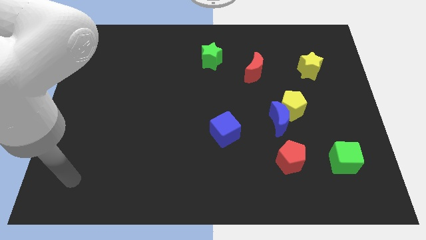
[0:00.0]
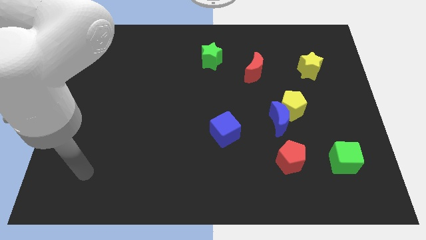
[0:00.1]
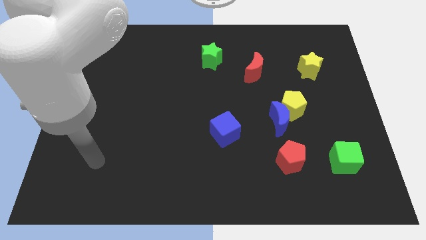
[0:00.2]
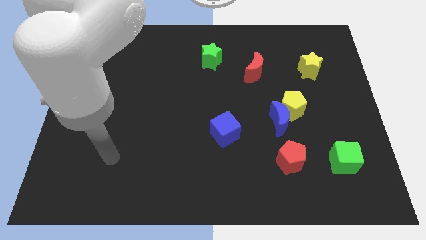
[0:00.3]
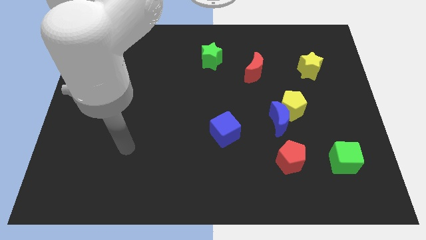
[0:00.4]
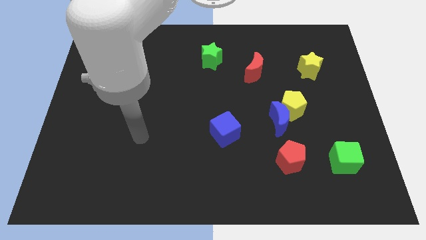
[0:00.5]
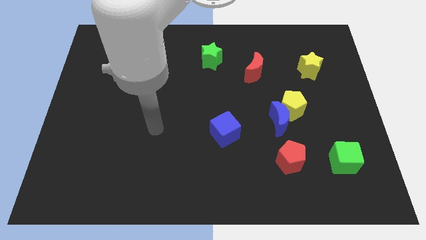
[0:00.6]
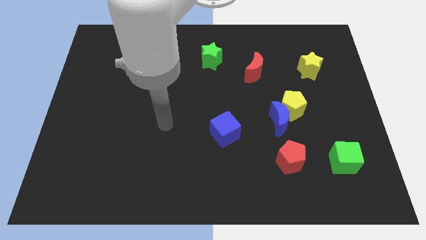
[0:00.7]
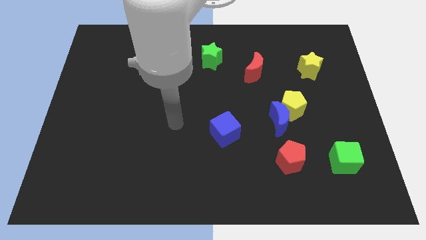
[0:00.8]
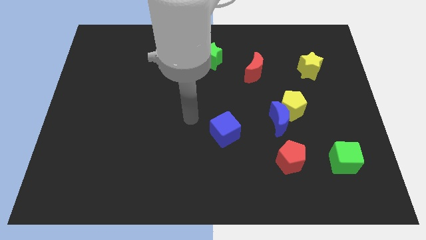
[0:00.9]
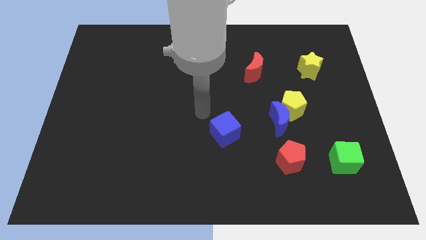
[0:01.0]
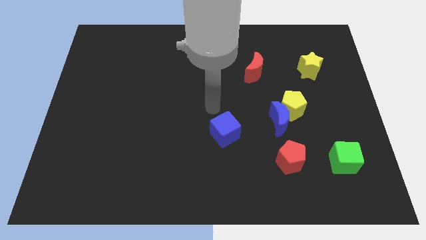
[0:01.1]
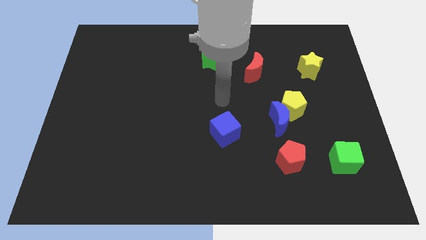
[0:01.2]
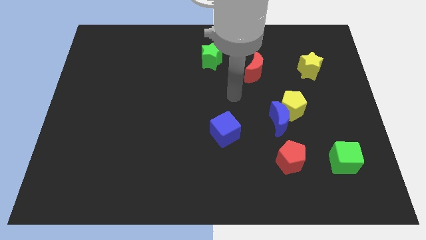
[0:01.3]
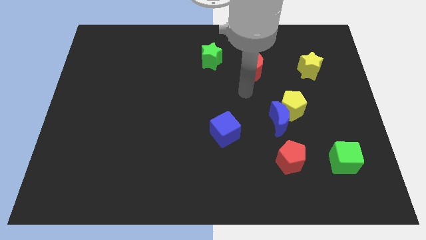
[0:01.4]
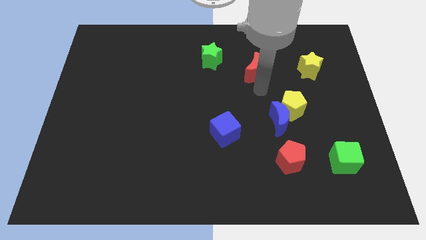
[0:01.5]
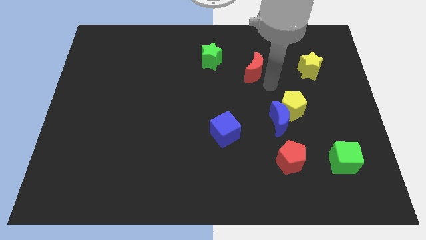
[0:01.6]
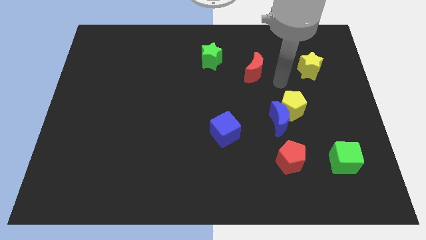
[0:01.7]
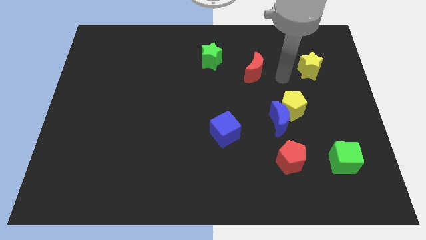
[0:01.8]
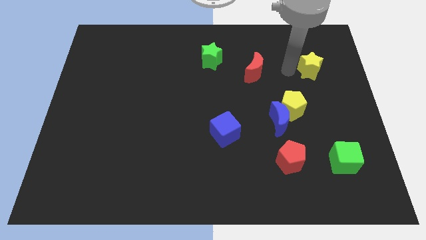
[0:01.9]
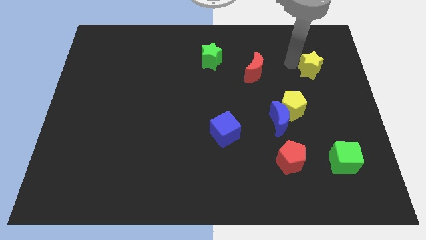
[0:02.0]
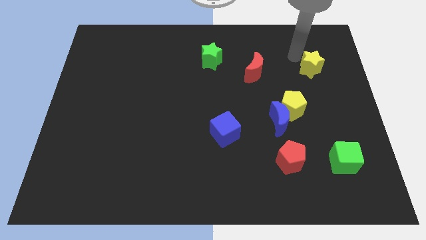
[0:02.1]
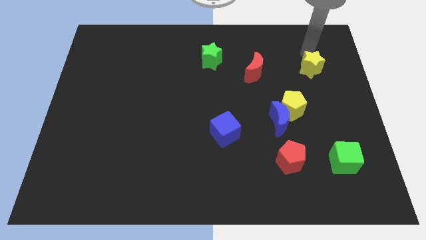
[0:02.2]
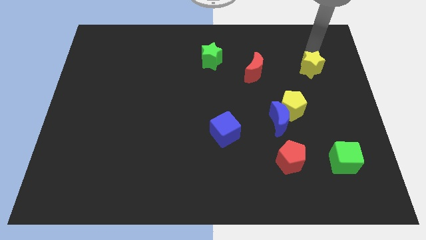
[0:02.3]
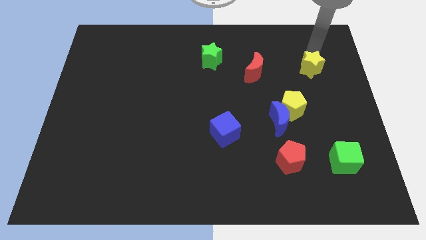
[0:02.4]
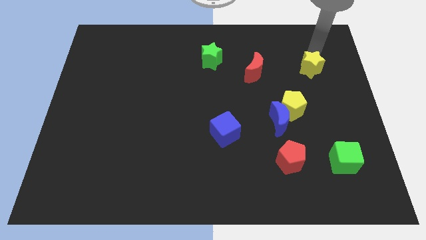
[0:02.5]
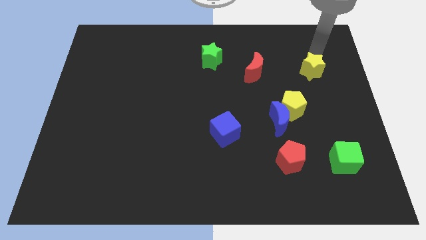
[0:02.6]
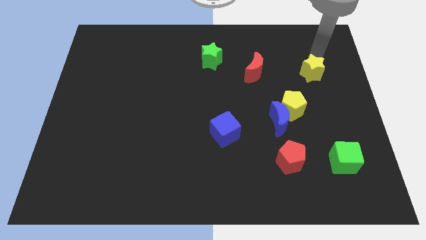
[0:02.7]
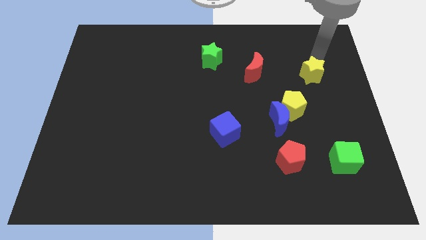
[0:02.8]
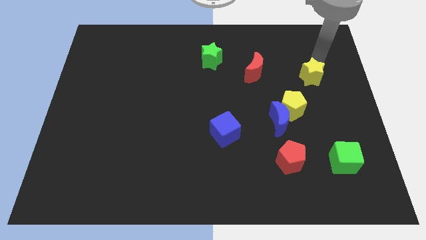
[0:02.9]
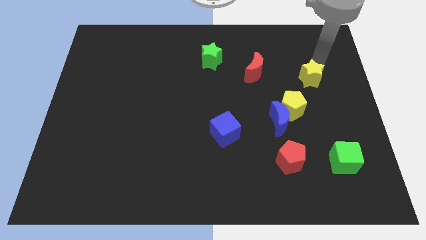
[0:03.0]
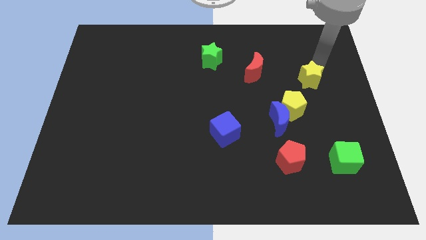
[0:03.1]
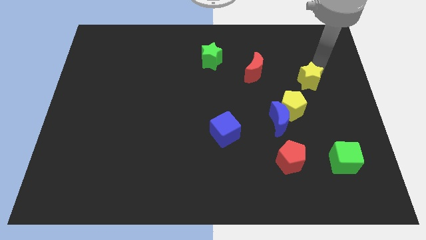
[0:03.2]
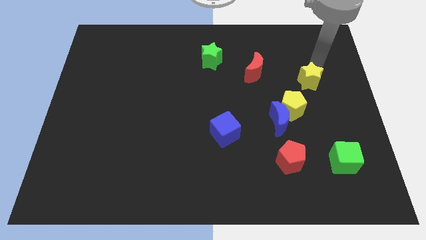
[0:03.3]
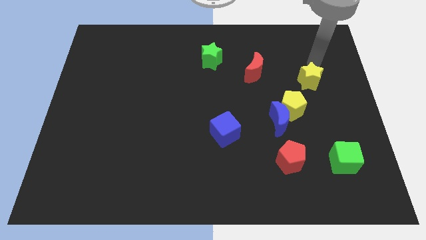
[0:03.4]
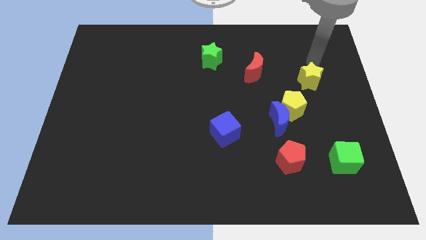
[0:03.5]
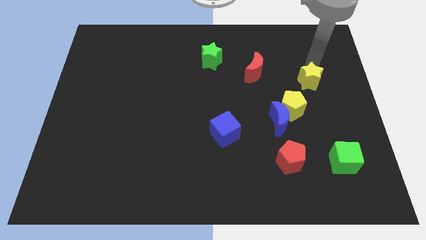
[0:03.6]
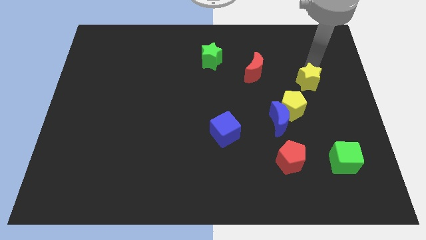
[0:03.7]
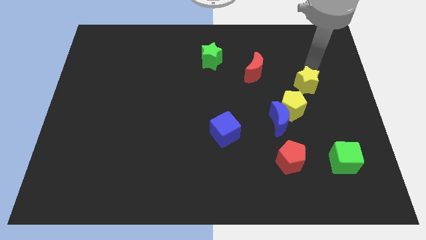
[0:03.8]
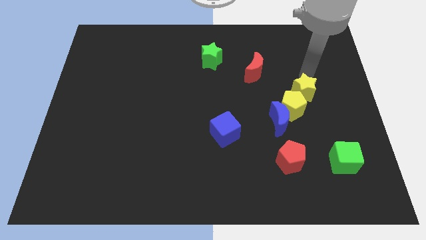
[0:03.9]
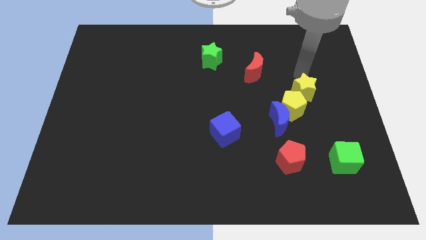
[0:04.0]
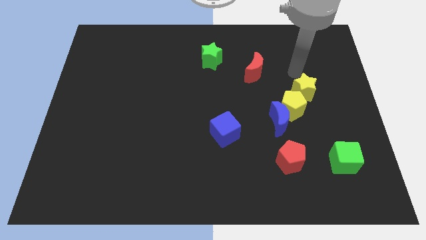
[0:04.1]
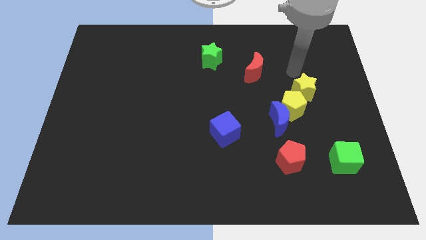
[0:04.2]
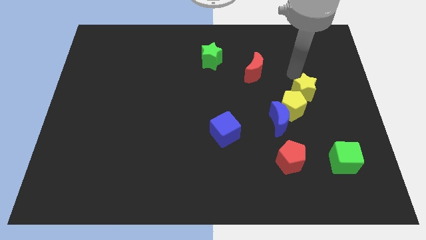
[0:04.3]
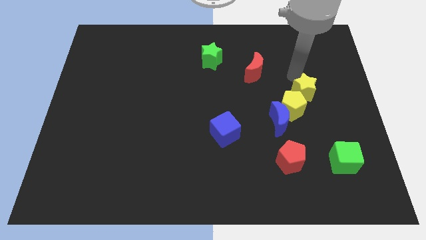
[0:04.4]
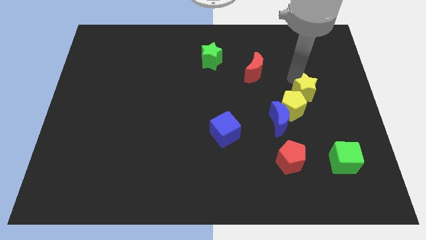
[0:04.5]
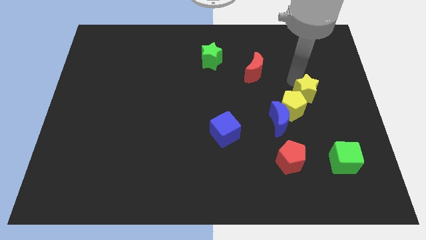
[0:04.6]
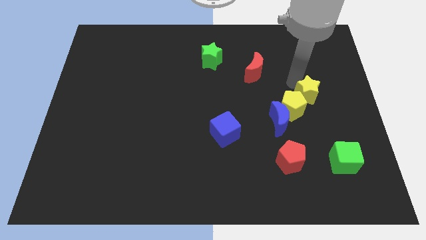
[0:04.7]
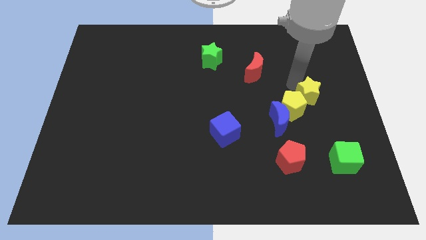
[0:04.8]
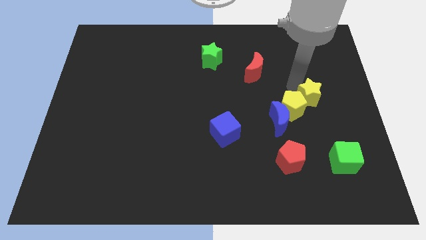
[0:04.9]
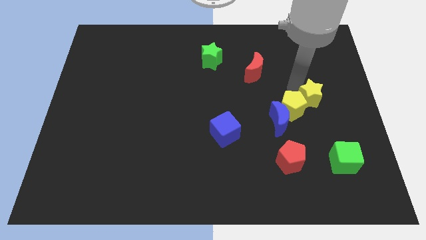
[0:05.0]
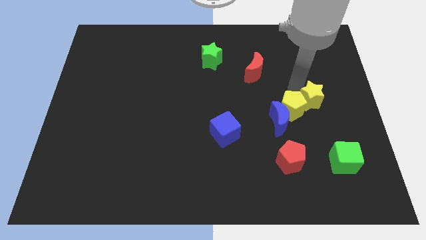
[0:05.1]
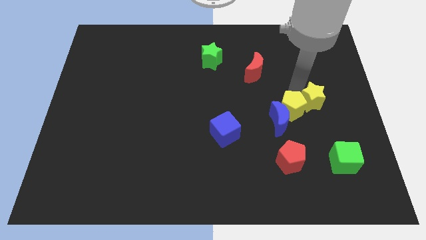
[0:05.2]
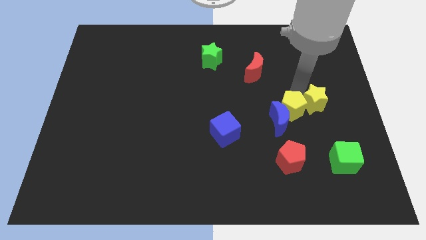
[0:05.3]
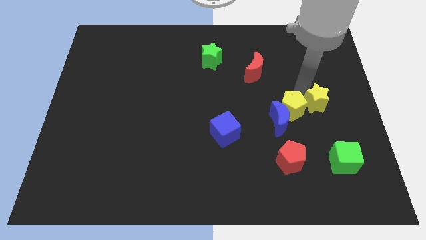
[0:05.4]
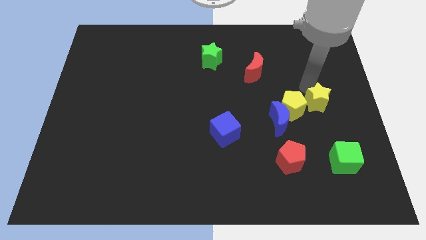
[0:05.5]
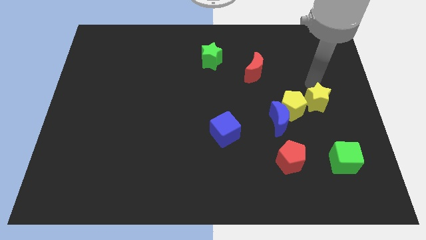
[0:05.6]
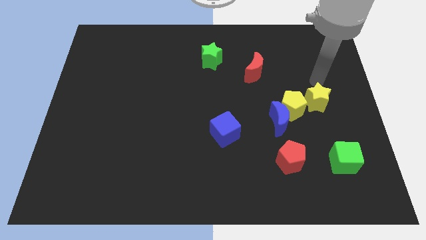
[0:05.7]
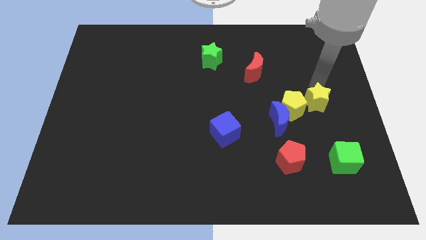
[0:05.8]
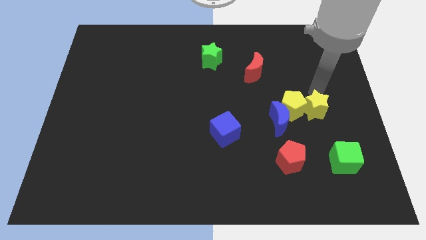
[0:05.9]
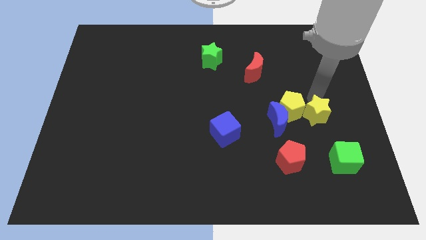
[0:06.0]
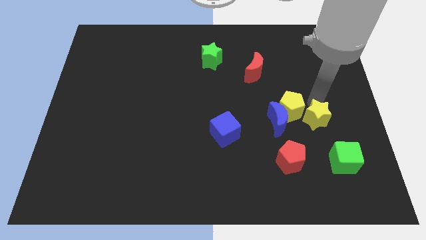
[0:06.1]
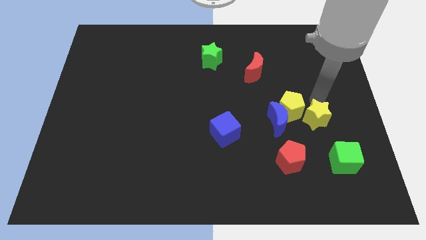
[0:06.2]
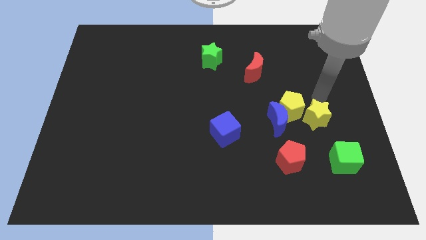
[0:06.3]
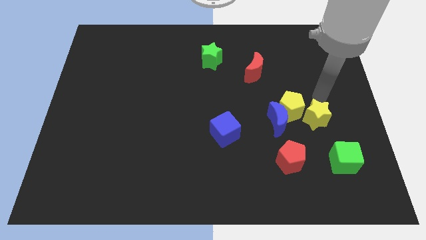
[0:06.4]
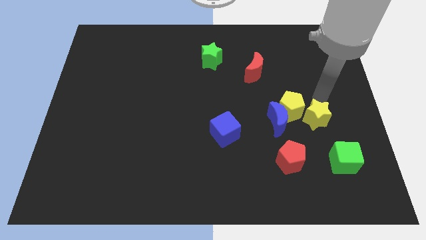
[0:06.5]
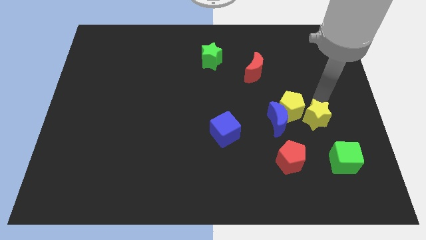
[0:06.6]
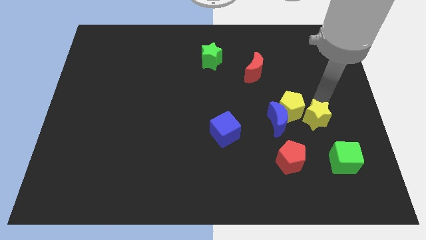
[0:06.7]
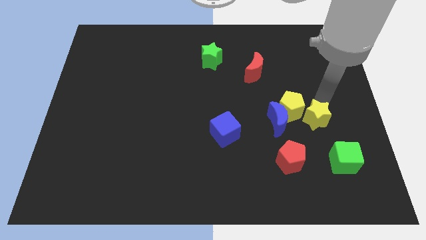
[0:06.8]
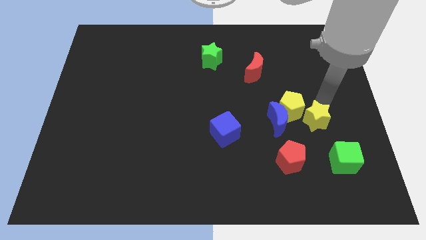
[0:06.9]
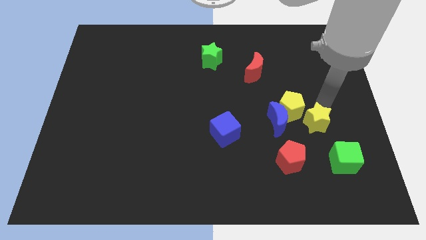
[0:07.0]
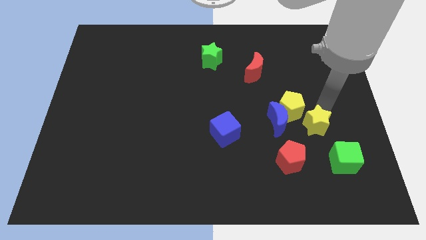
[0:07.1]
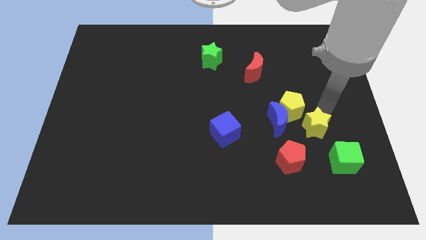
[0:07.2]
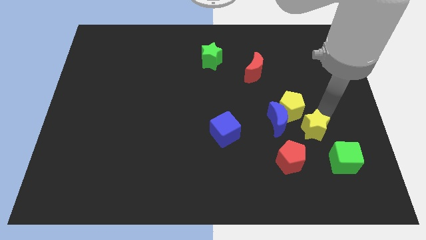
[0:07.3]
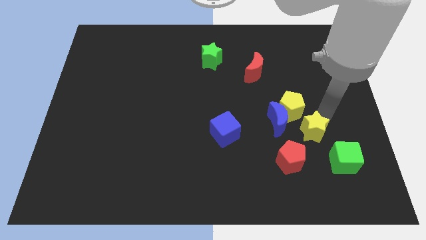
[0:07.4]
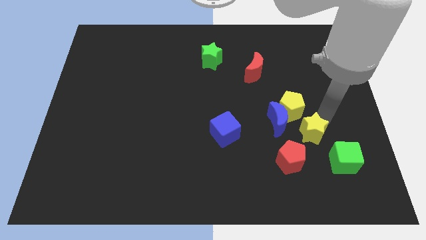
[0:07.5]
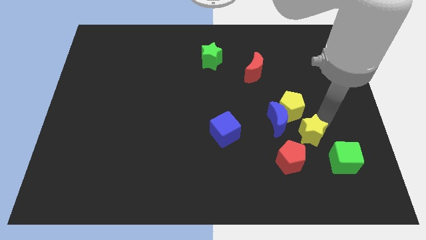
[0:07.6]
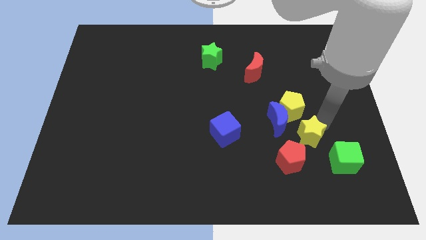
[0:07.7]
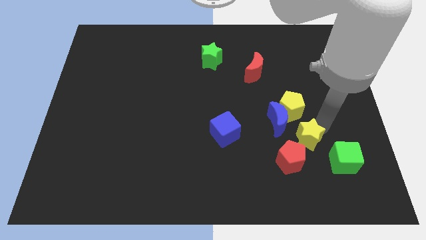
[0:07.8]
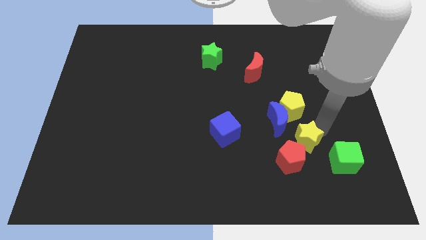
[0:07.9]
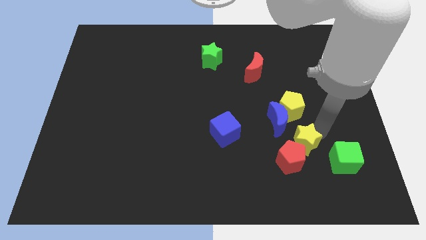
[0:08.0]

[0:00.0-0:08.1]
put the yellow star towards the red pentagon
